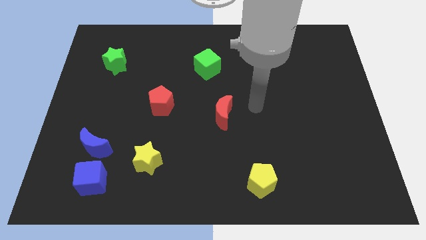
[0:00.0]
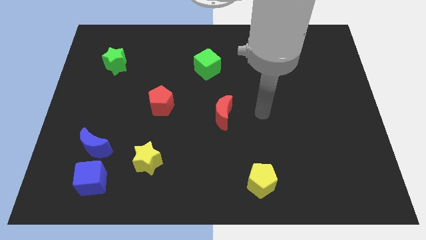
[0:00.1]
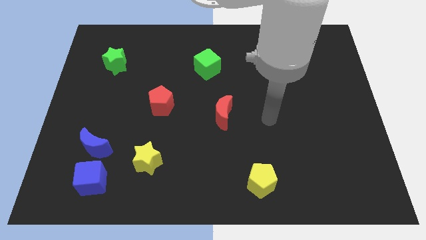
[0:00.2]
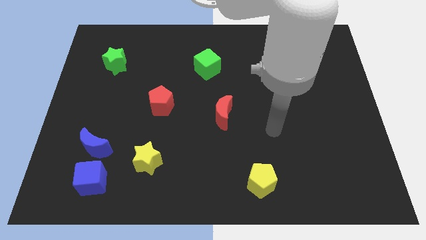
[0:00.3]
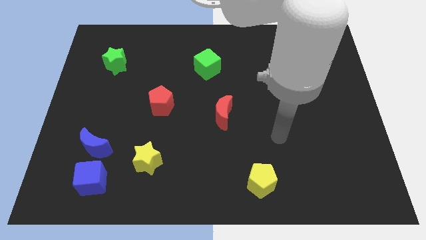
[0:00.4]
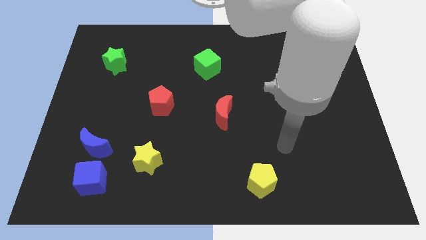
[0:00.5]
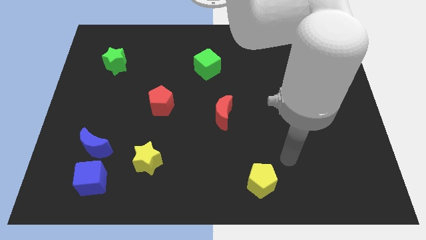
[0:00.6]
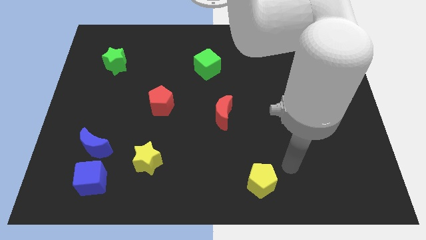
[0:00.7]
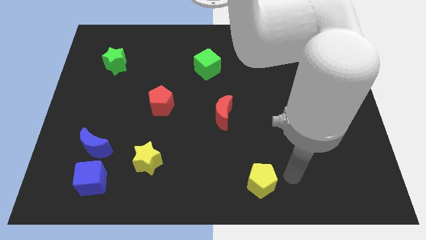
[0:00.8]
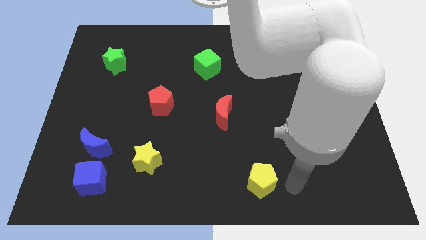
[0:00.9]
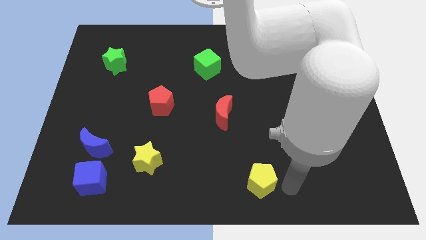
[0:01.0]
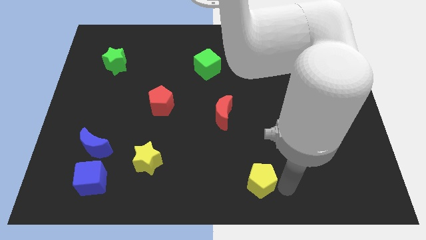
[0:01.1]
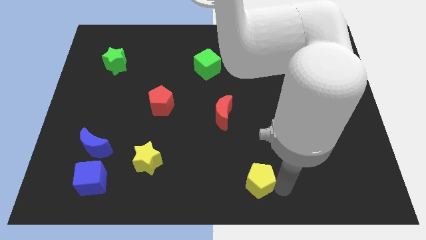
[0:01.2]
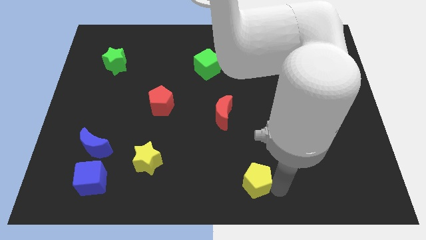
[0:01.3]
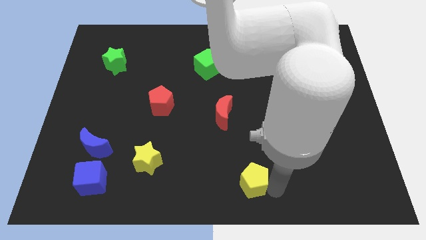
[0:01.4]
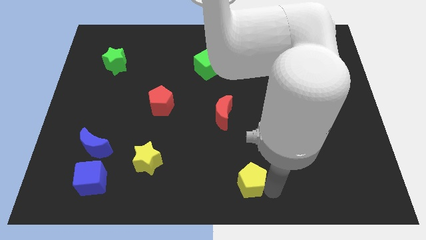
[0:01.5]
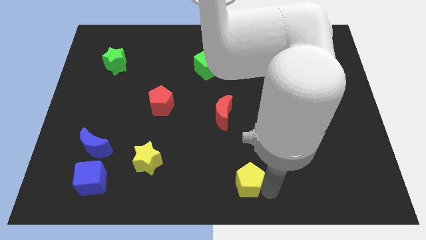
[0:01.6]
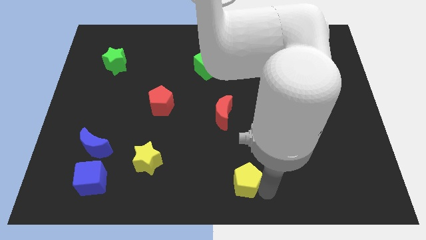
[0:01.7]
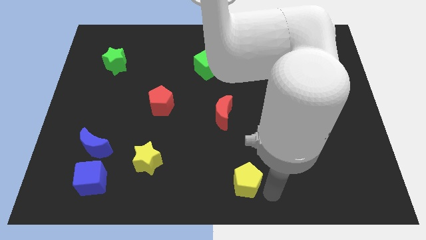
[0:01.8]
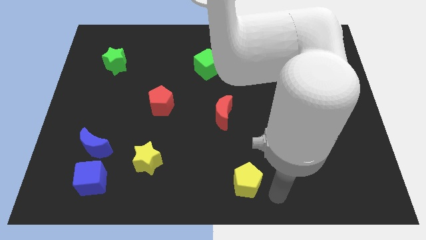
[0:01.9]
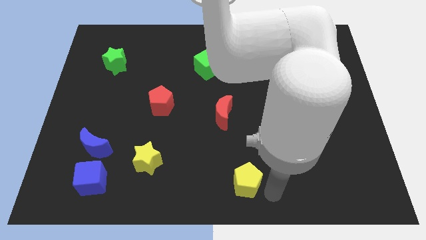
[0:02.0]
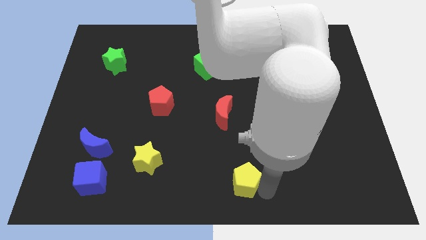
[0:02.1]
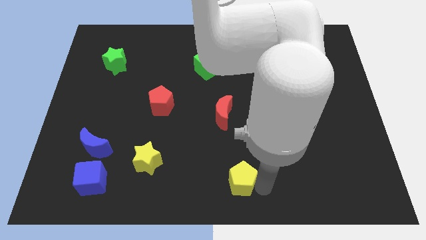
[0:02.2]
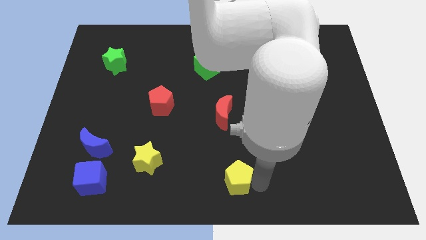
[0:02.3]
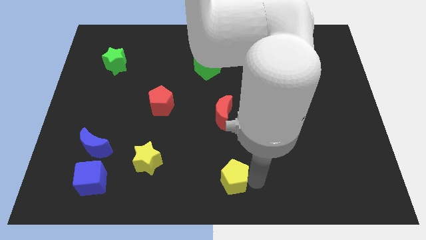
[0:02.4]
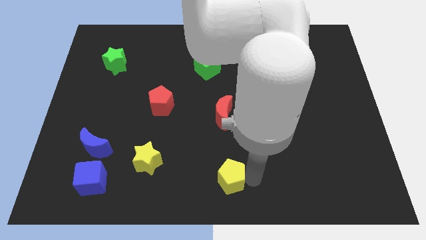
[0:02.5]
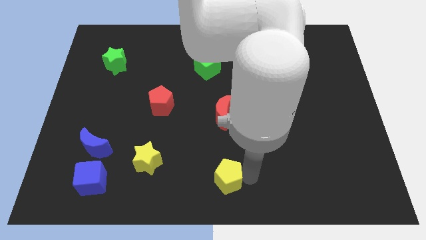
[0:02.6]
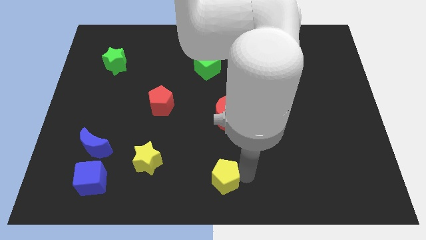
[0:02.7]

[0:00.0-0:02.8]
move the yellow pentagon a little bit to the left

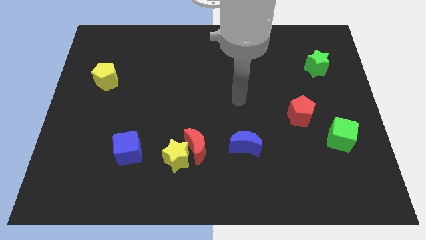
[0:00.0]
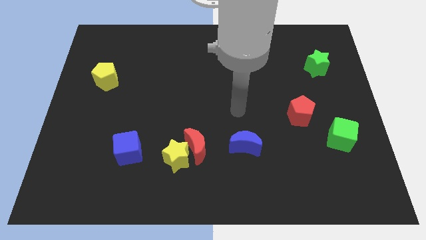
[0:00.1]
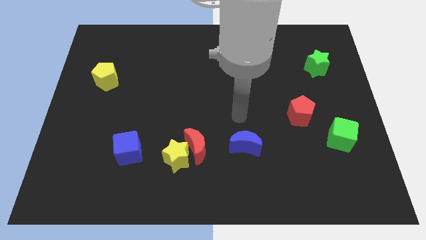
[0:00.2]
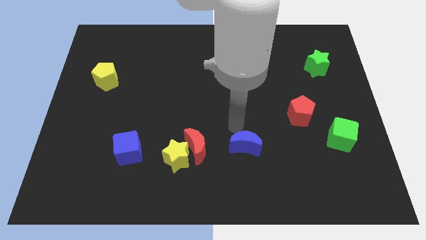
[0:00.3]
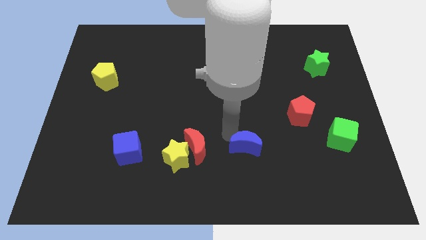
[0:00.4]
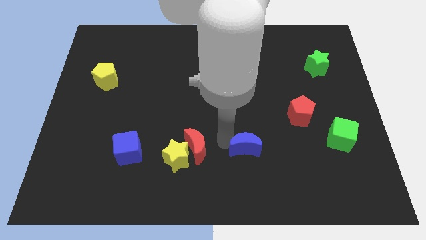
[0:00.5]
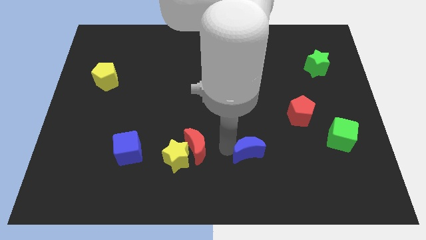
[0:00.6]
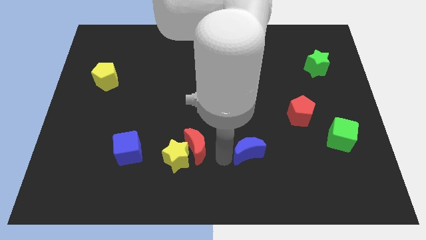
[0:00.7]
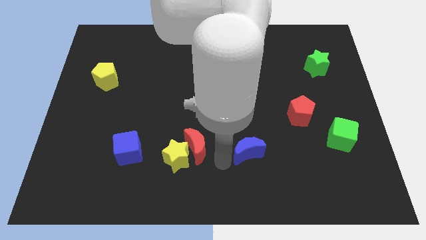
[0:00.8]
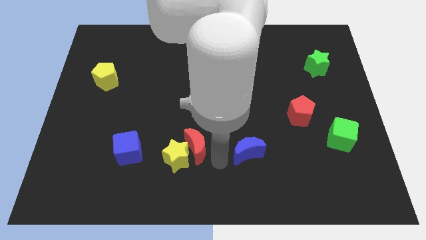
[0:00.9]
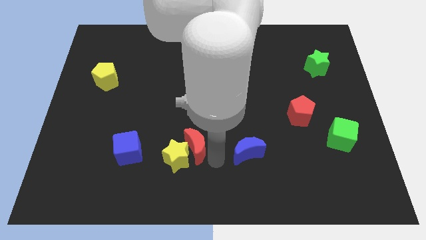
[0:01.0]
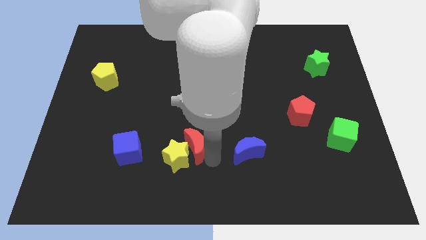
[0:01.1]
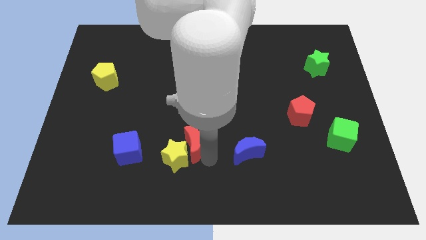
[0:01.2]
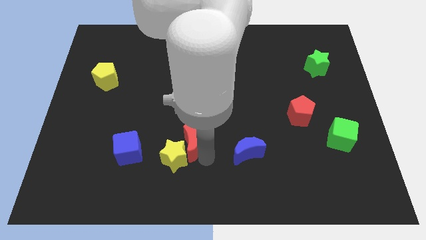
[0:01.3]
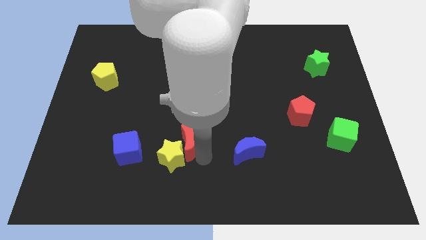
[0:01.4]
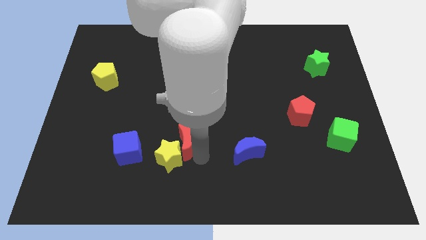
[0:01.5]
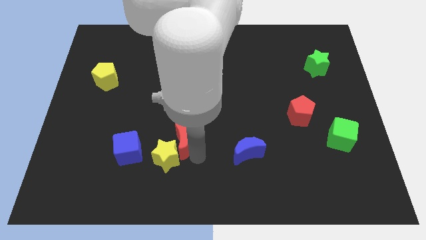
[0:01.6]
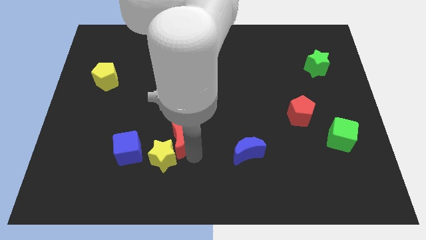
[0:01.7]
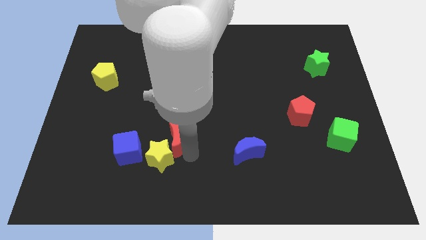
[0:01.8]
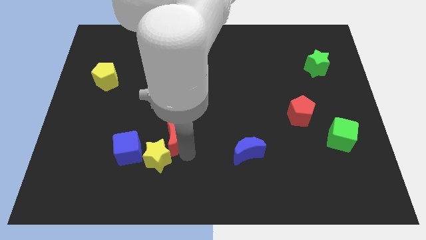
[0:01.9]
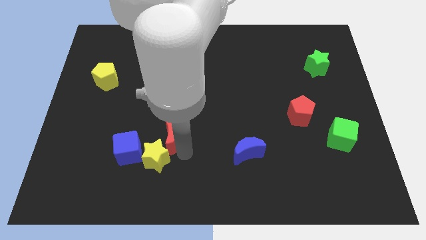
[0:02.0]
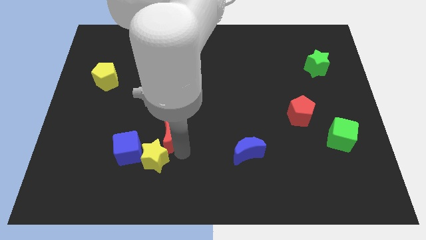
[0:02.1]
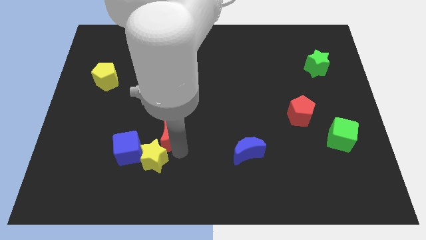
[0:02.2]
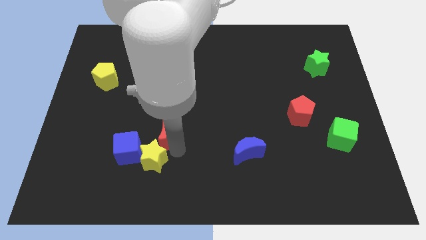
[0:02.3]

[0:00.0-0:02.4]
slightly slide the red moon upwards and to the left diagonally

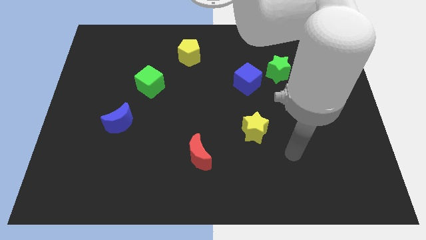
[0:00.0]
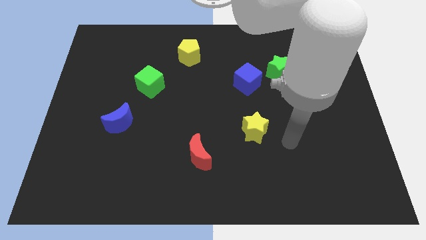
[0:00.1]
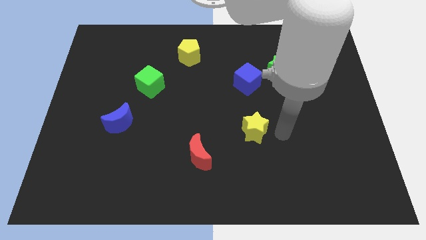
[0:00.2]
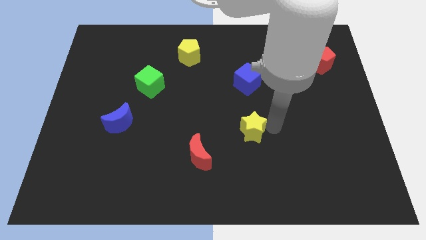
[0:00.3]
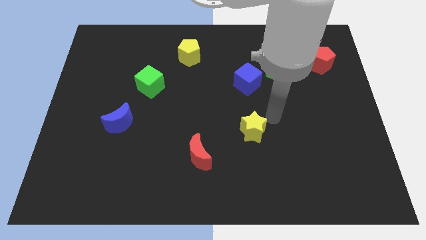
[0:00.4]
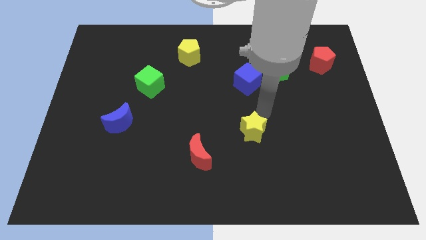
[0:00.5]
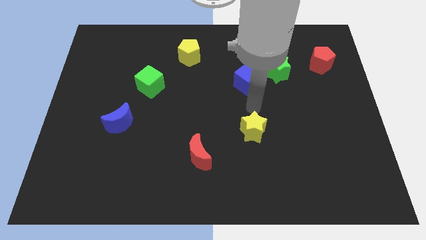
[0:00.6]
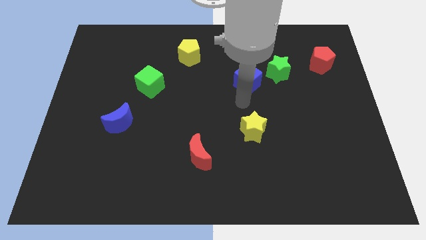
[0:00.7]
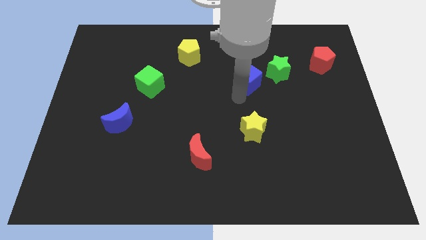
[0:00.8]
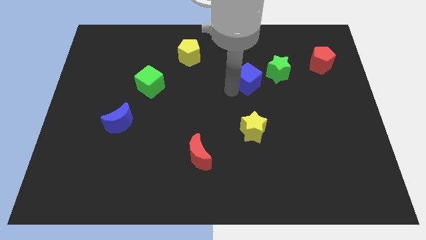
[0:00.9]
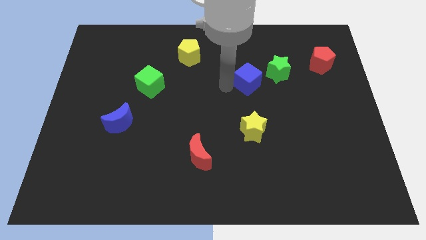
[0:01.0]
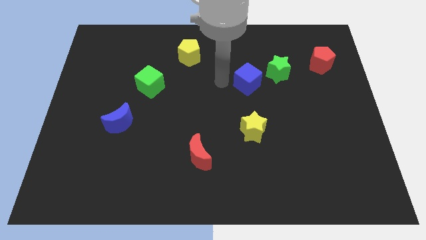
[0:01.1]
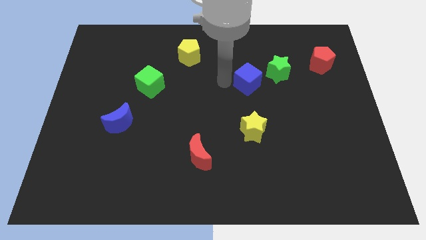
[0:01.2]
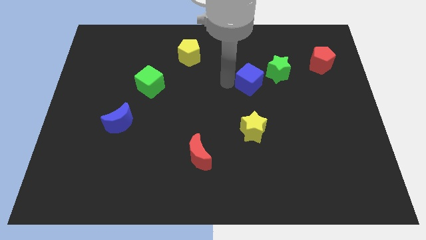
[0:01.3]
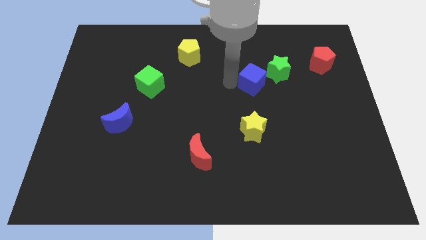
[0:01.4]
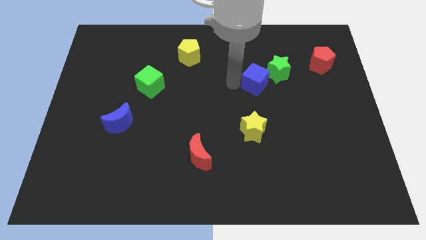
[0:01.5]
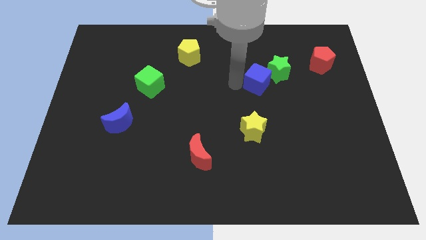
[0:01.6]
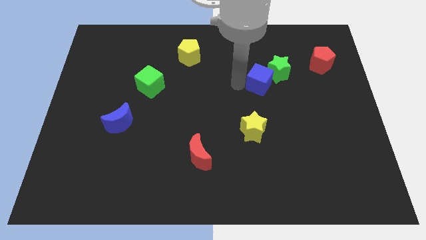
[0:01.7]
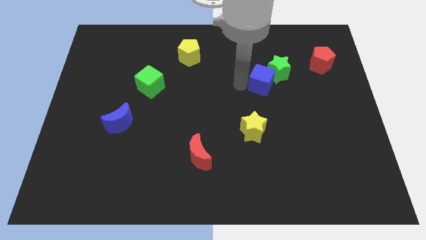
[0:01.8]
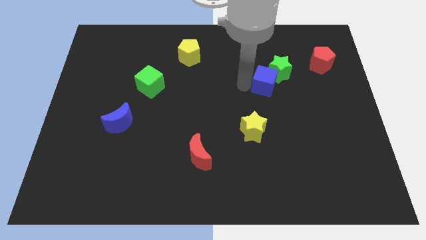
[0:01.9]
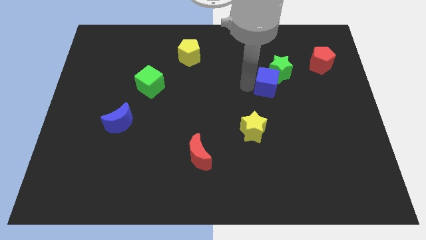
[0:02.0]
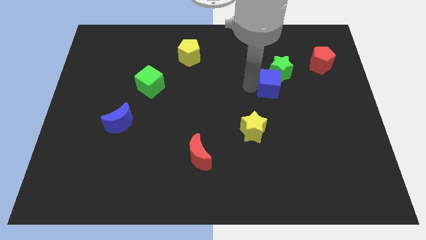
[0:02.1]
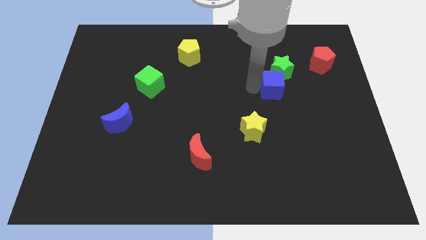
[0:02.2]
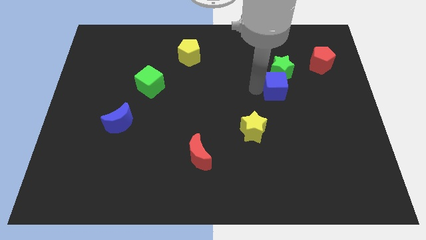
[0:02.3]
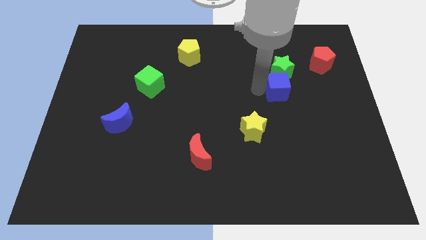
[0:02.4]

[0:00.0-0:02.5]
push the blue cube a little bit right

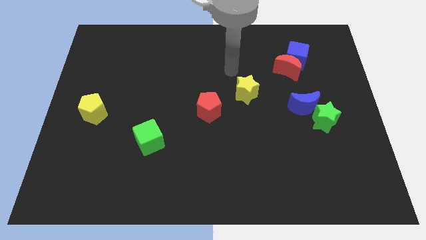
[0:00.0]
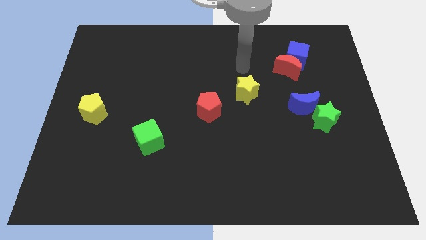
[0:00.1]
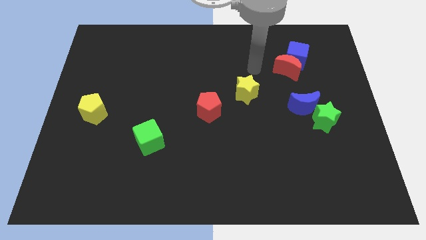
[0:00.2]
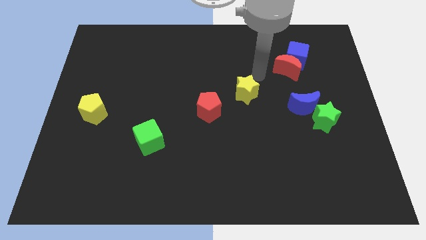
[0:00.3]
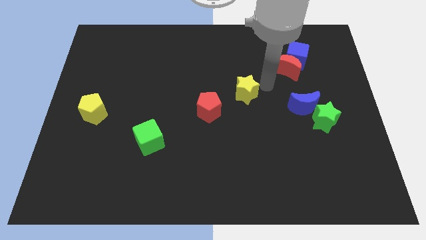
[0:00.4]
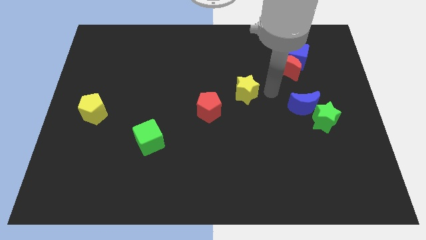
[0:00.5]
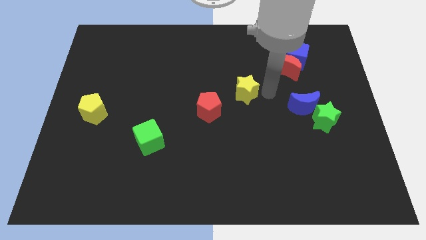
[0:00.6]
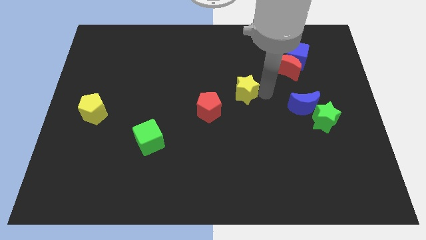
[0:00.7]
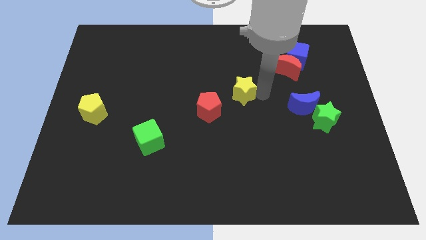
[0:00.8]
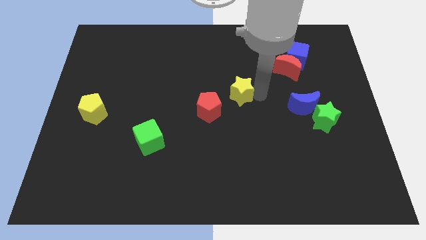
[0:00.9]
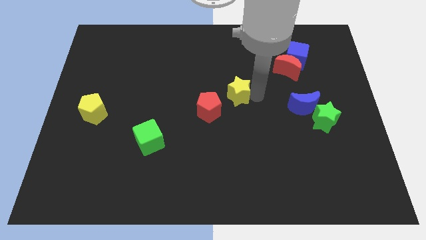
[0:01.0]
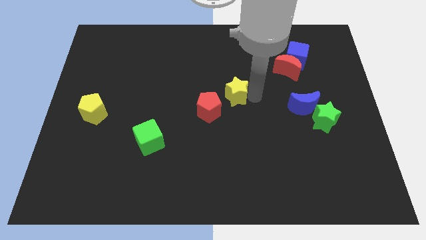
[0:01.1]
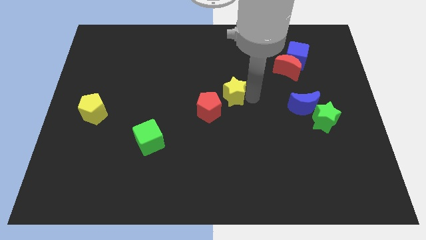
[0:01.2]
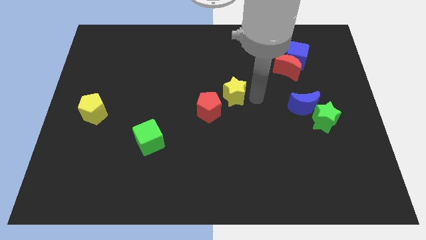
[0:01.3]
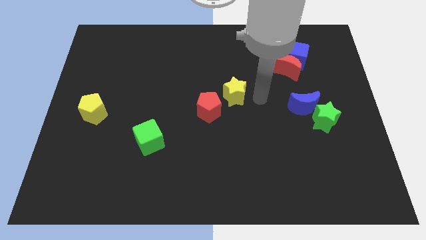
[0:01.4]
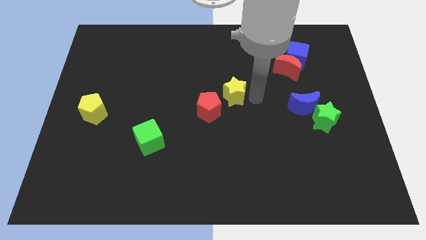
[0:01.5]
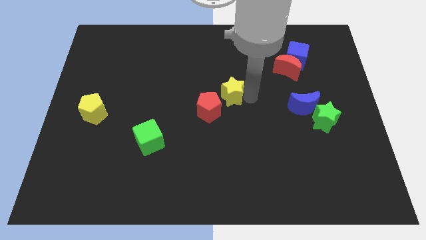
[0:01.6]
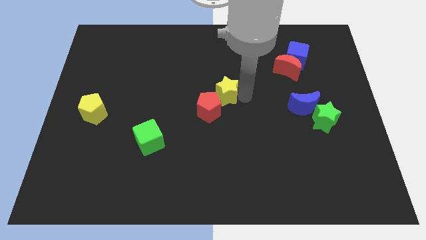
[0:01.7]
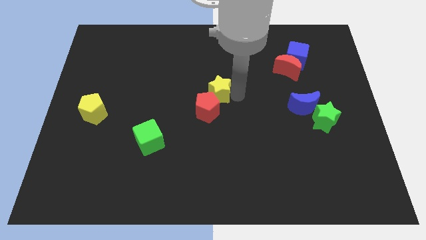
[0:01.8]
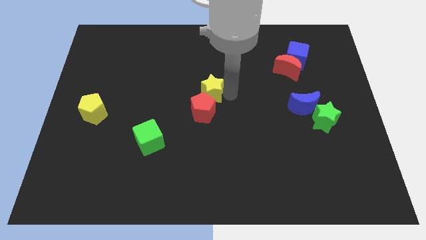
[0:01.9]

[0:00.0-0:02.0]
push the yellow star a bit to the left
